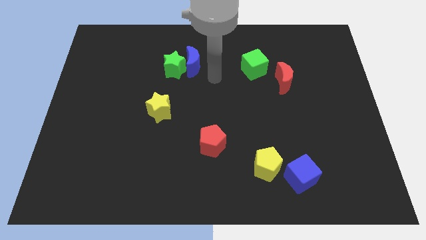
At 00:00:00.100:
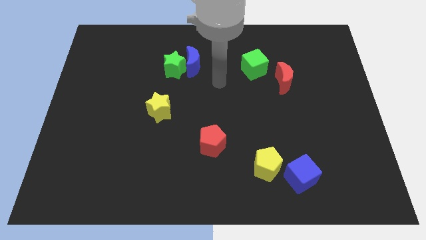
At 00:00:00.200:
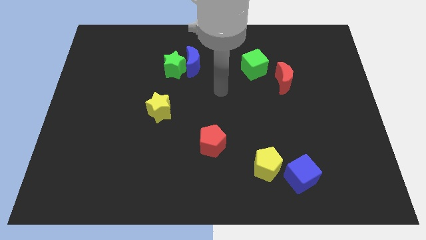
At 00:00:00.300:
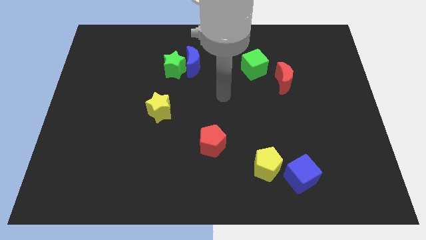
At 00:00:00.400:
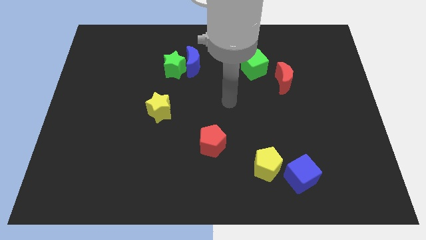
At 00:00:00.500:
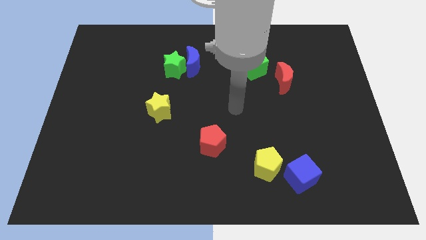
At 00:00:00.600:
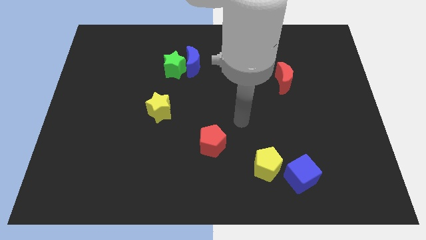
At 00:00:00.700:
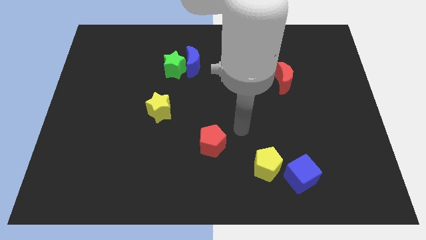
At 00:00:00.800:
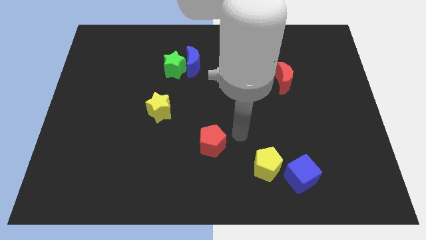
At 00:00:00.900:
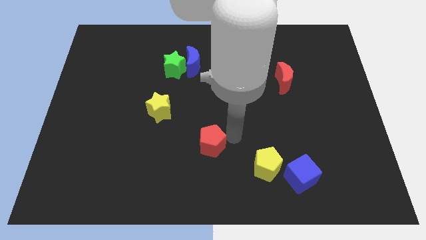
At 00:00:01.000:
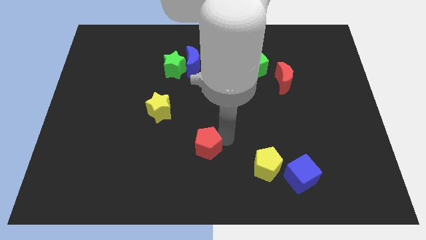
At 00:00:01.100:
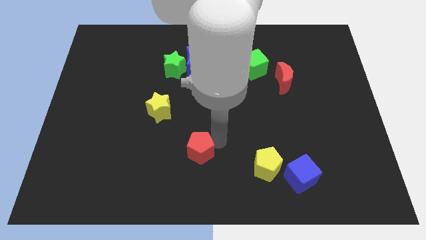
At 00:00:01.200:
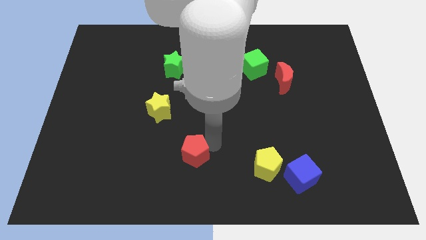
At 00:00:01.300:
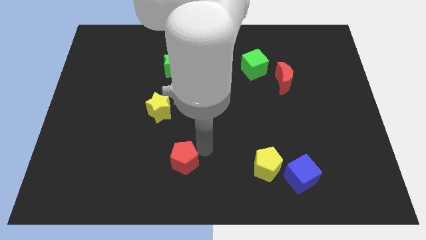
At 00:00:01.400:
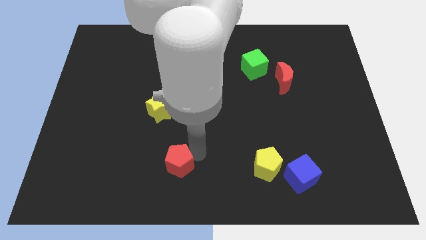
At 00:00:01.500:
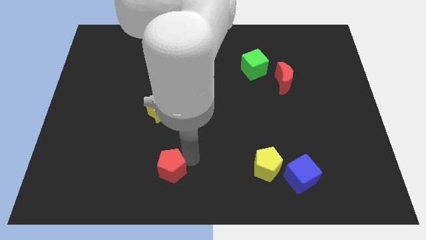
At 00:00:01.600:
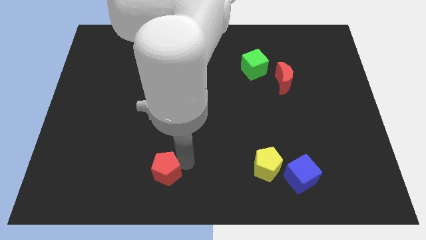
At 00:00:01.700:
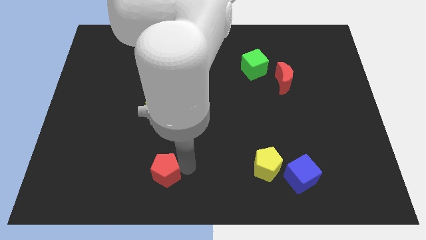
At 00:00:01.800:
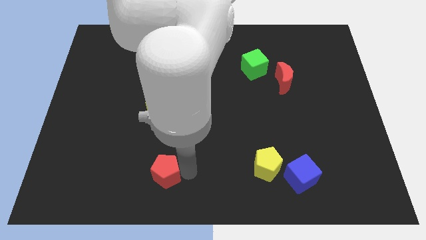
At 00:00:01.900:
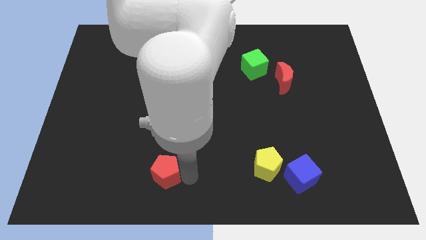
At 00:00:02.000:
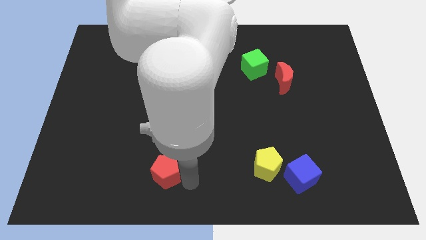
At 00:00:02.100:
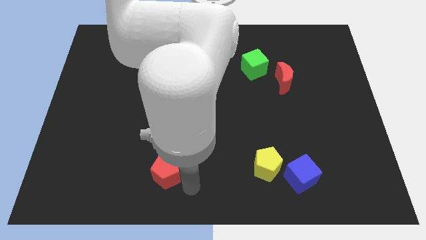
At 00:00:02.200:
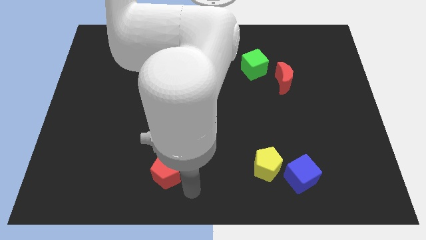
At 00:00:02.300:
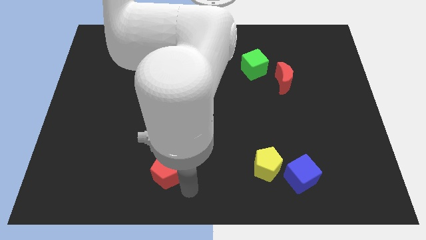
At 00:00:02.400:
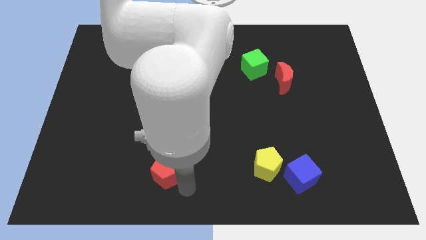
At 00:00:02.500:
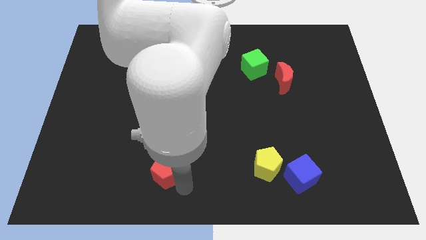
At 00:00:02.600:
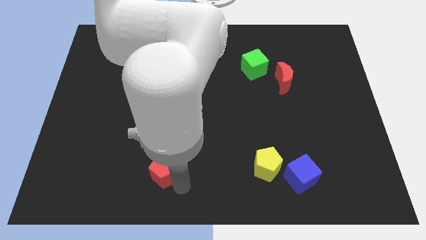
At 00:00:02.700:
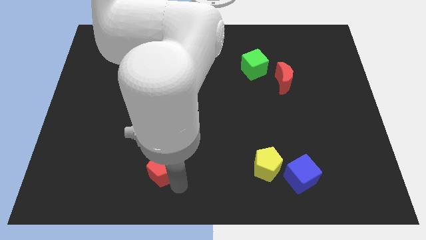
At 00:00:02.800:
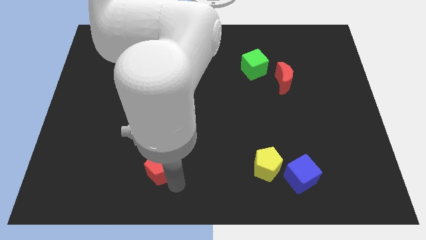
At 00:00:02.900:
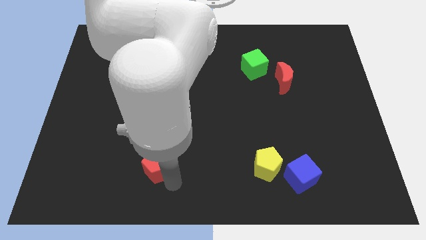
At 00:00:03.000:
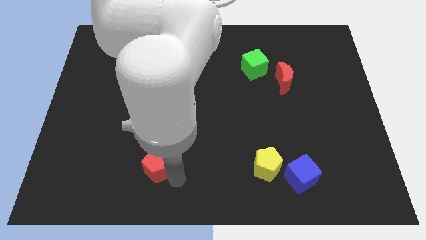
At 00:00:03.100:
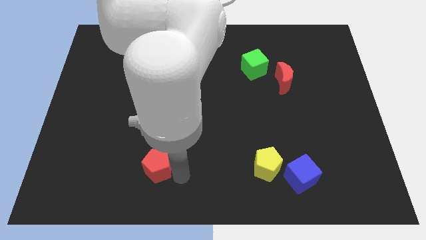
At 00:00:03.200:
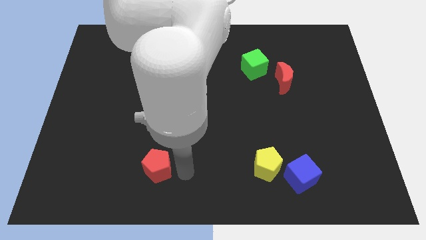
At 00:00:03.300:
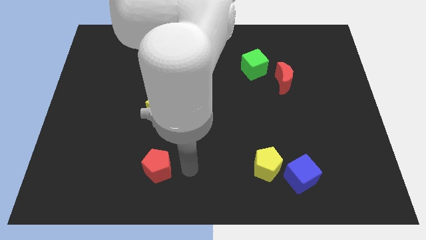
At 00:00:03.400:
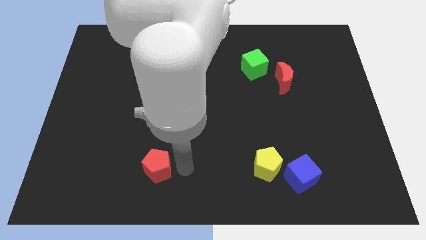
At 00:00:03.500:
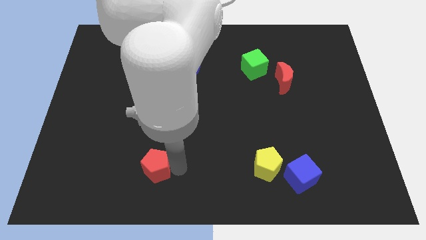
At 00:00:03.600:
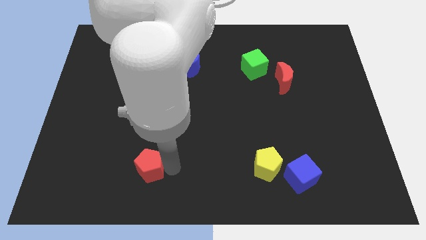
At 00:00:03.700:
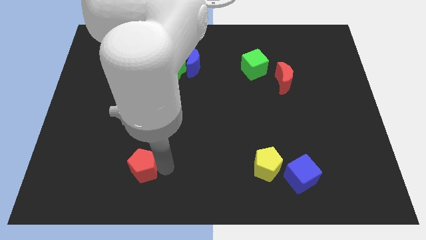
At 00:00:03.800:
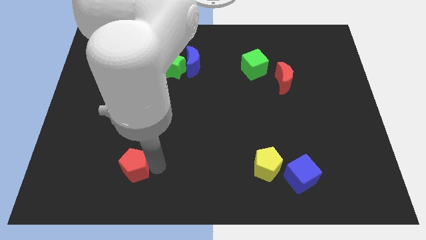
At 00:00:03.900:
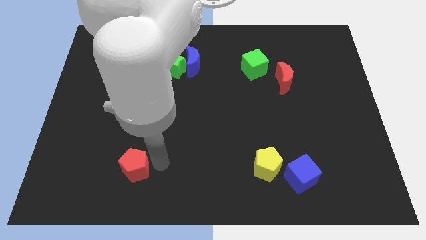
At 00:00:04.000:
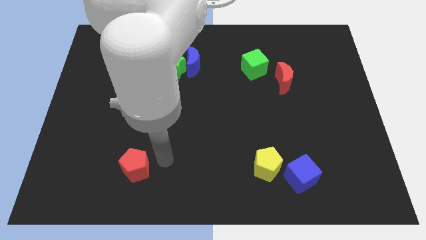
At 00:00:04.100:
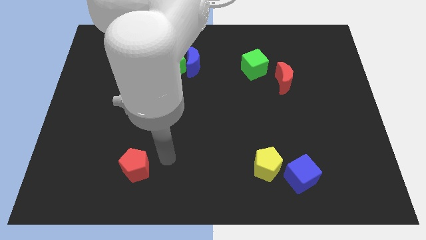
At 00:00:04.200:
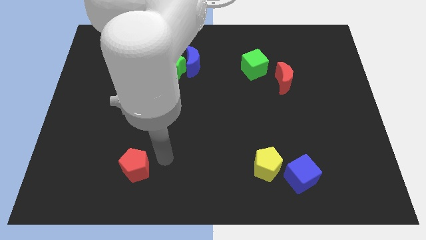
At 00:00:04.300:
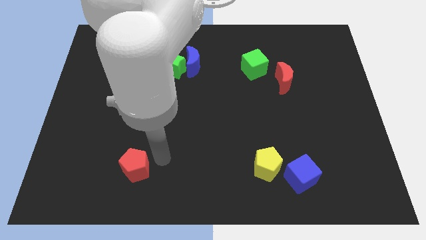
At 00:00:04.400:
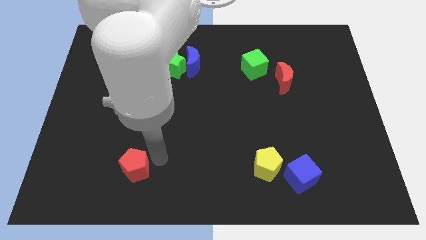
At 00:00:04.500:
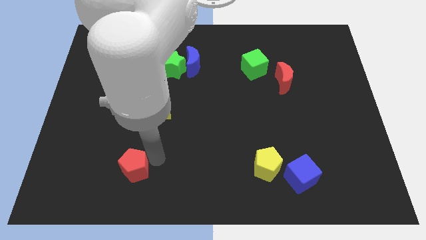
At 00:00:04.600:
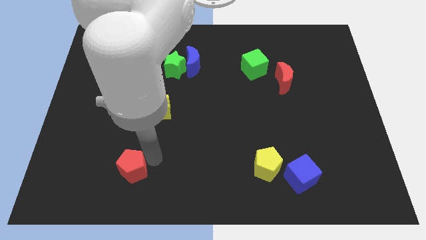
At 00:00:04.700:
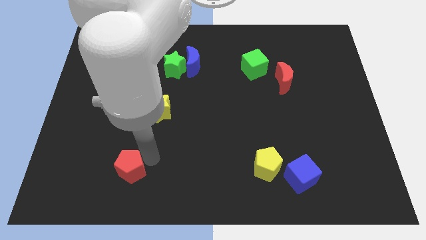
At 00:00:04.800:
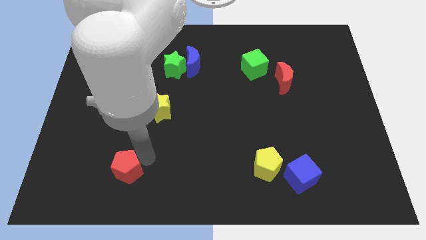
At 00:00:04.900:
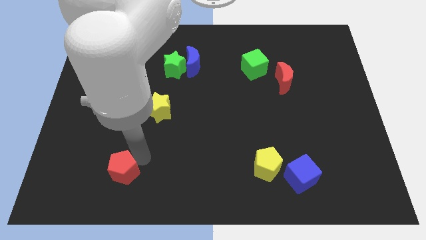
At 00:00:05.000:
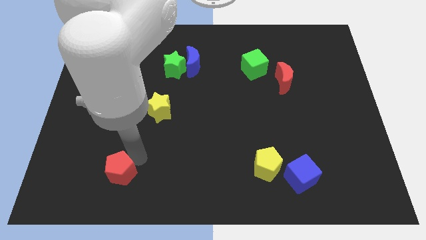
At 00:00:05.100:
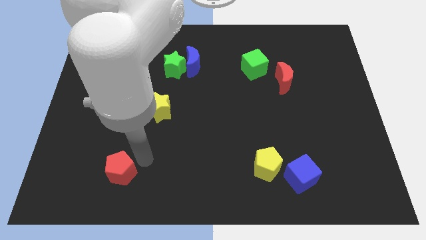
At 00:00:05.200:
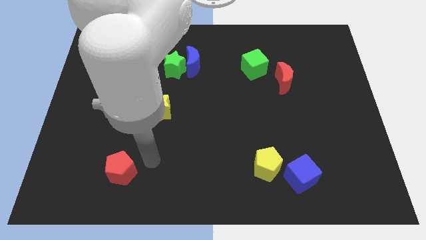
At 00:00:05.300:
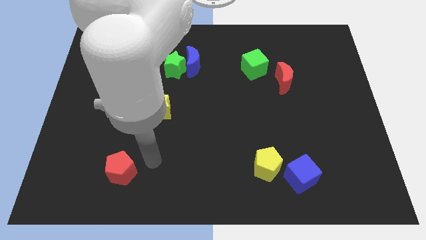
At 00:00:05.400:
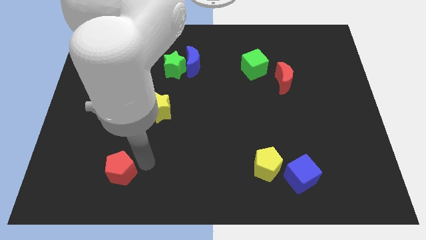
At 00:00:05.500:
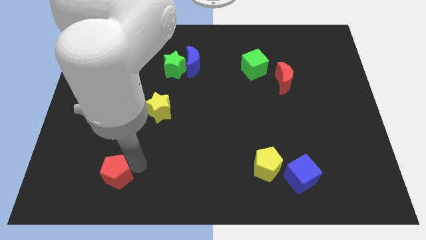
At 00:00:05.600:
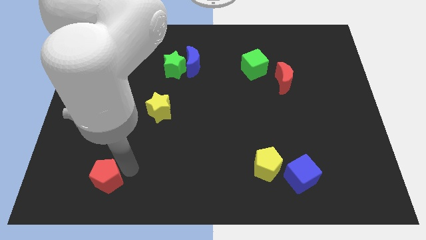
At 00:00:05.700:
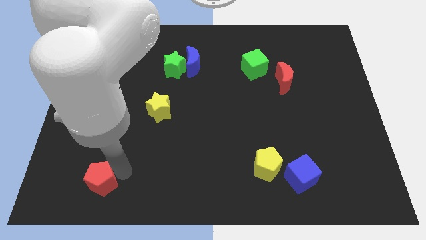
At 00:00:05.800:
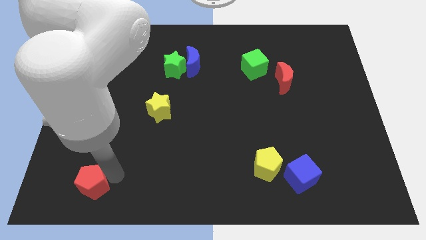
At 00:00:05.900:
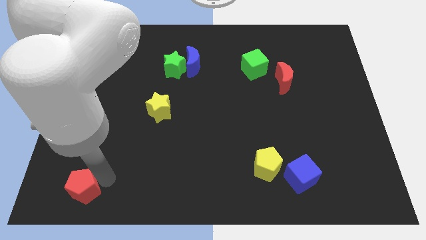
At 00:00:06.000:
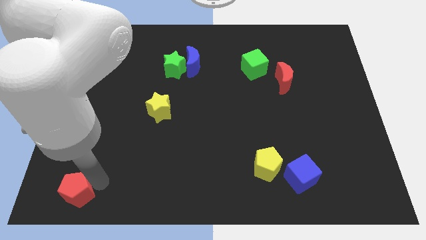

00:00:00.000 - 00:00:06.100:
push the red pentagon to the lower left corner
